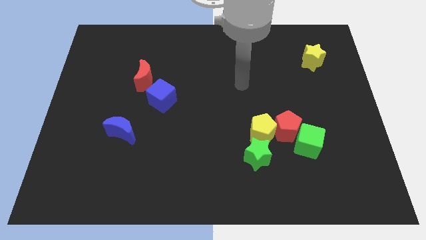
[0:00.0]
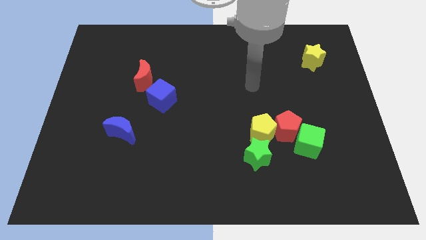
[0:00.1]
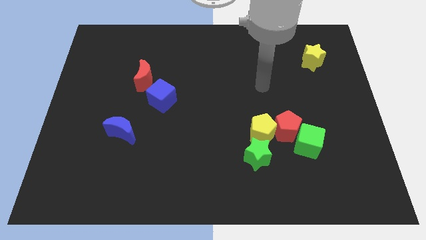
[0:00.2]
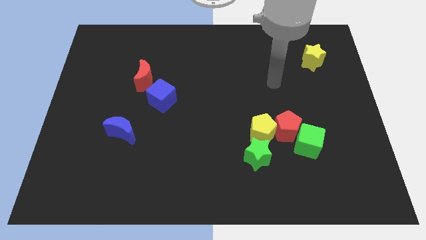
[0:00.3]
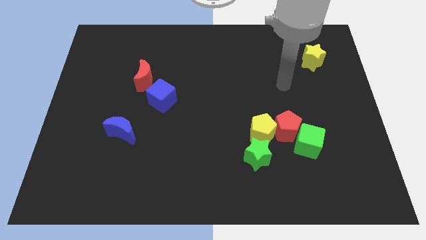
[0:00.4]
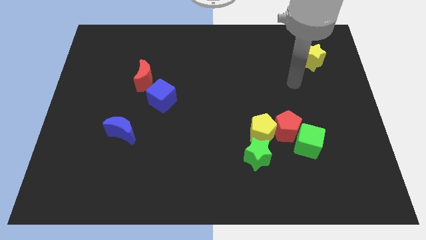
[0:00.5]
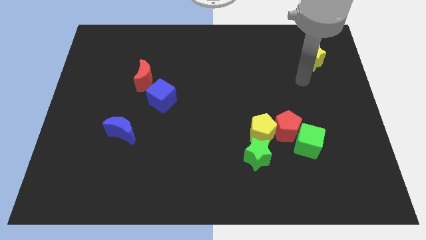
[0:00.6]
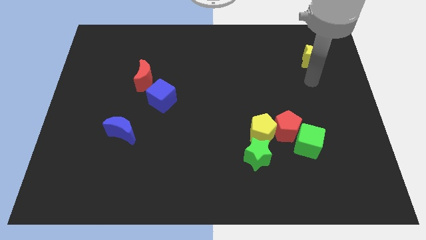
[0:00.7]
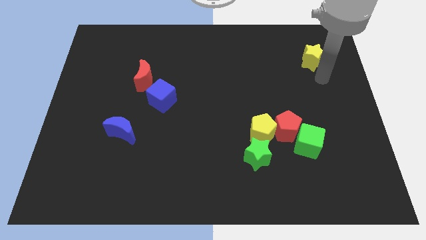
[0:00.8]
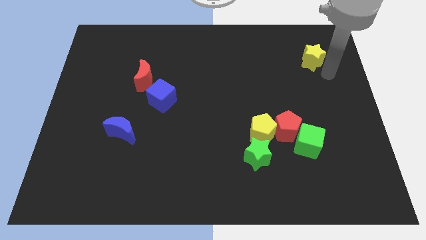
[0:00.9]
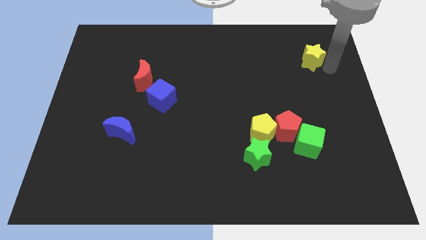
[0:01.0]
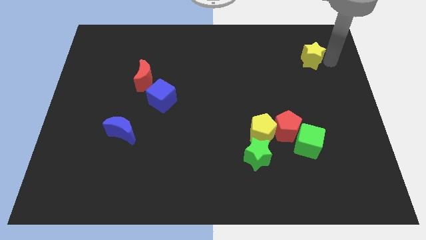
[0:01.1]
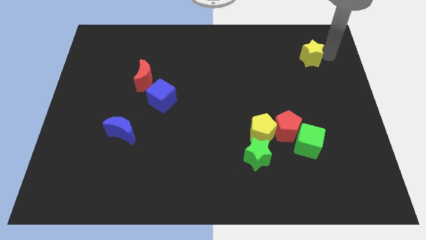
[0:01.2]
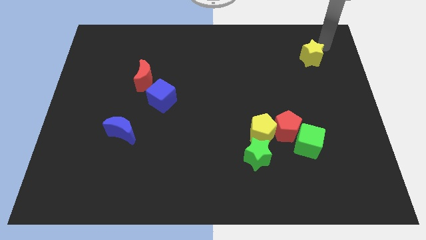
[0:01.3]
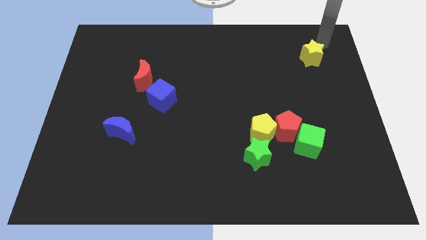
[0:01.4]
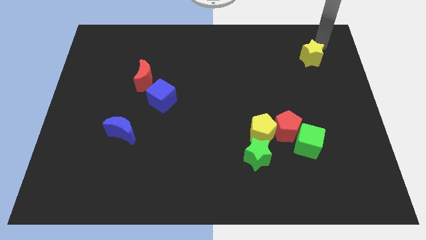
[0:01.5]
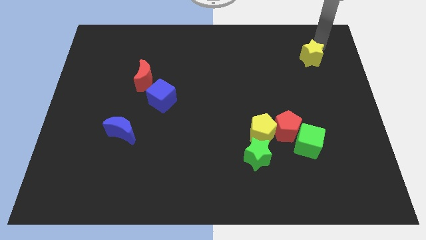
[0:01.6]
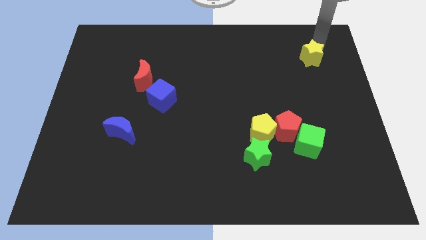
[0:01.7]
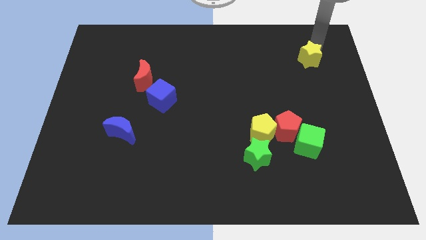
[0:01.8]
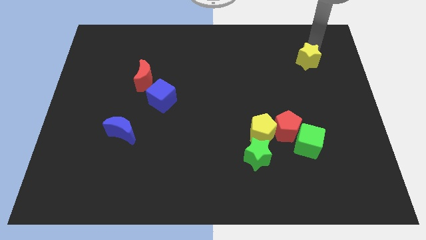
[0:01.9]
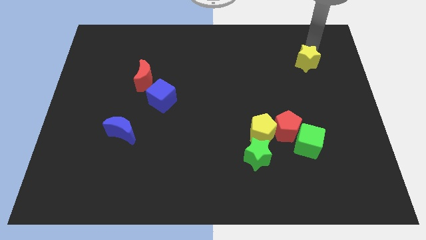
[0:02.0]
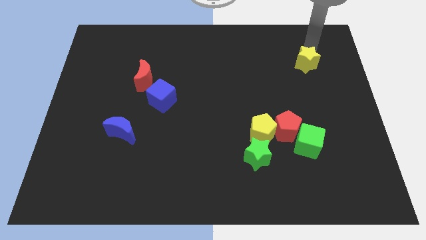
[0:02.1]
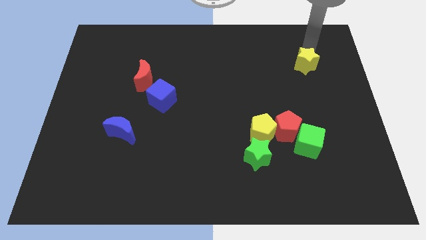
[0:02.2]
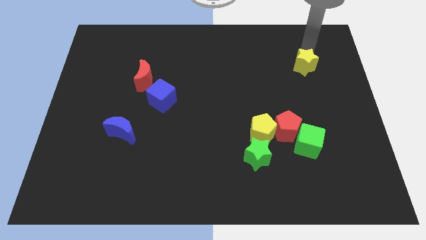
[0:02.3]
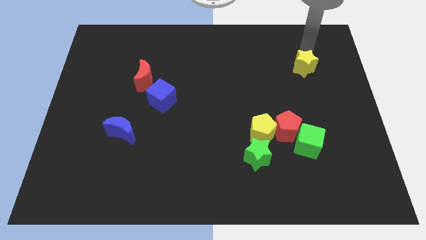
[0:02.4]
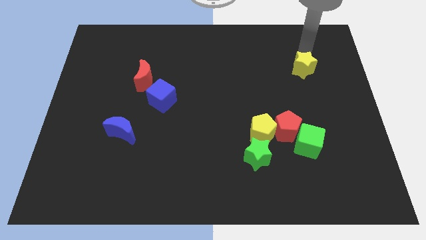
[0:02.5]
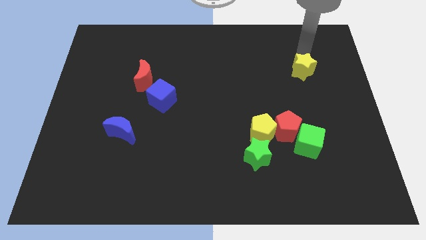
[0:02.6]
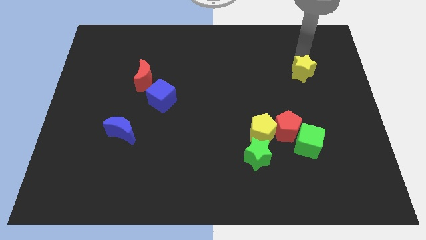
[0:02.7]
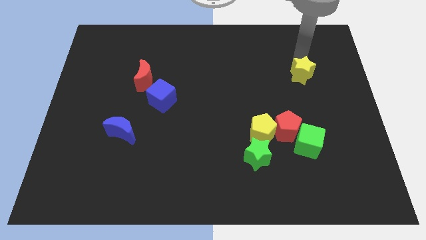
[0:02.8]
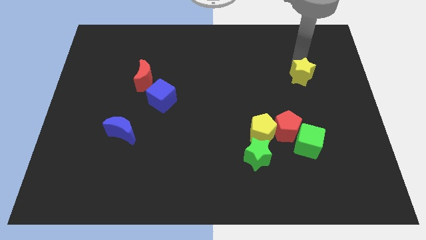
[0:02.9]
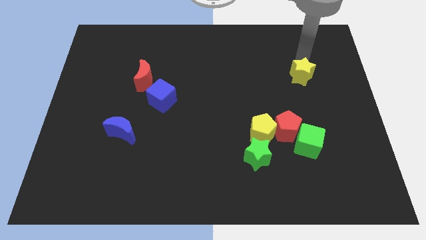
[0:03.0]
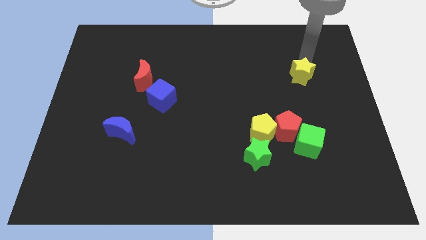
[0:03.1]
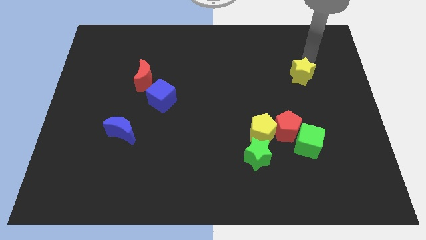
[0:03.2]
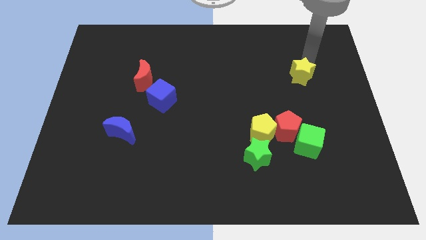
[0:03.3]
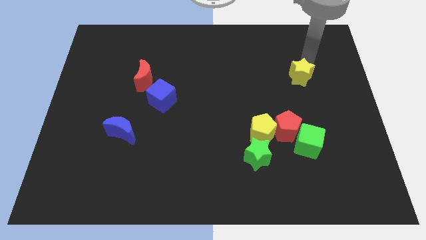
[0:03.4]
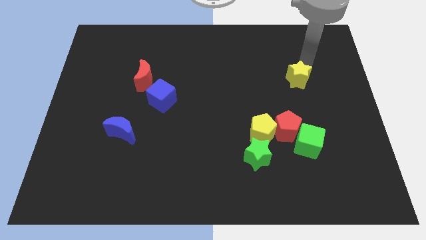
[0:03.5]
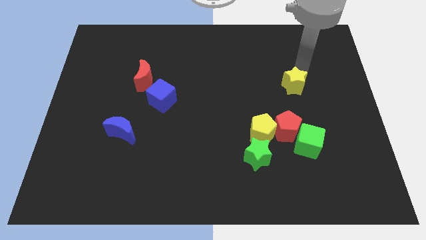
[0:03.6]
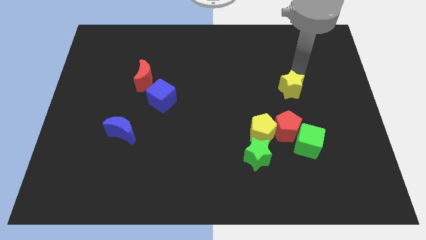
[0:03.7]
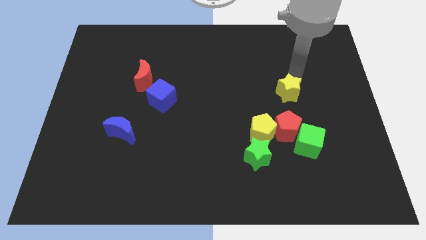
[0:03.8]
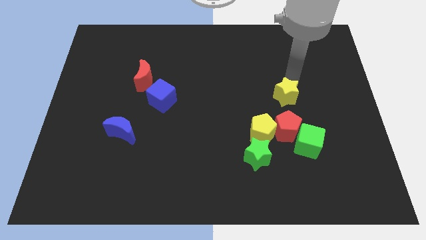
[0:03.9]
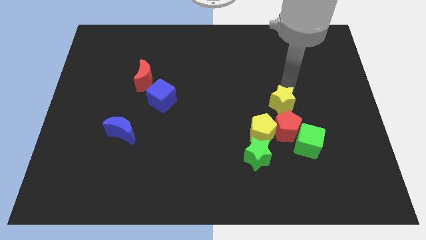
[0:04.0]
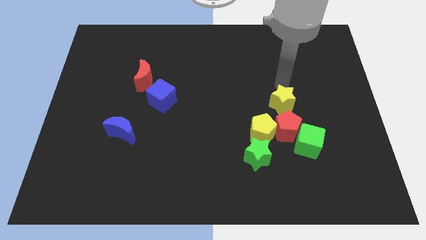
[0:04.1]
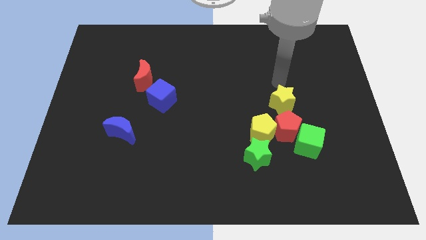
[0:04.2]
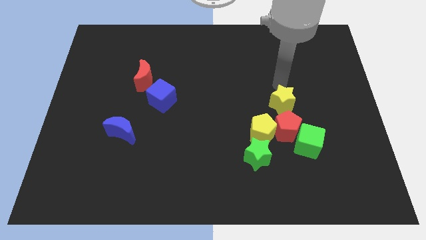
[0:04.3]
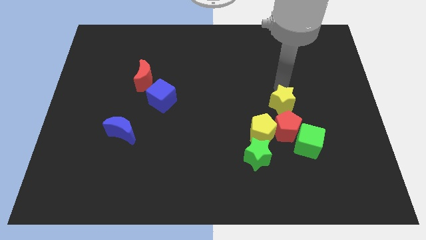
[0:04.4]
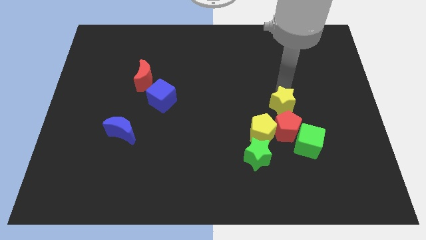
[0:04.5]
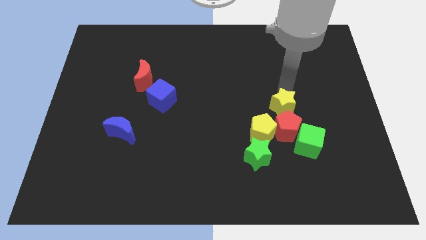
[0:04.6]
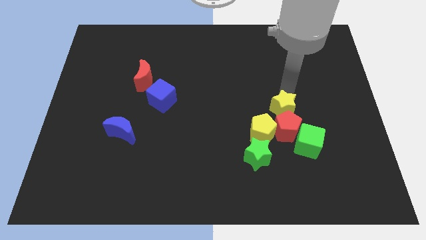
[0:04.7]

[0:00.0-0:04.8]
push the yellow star to the red pentagon

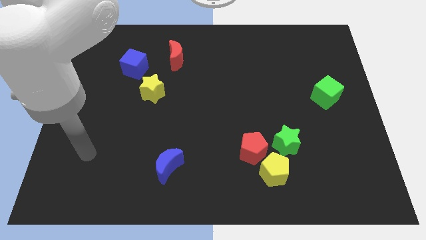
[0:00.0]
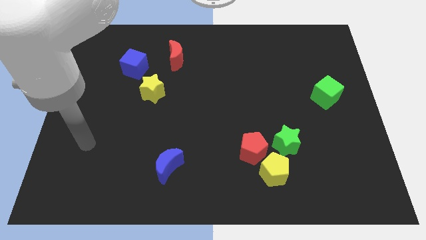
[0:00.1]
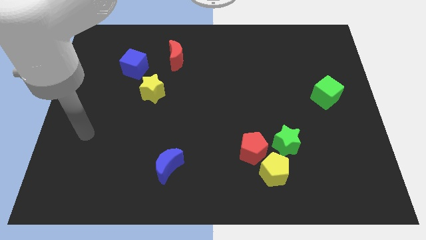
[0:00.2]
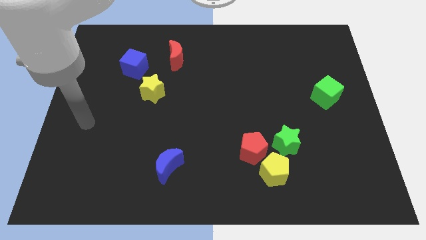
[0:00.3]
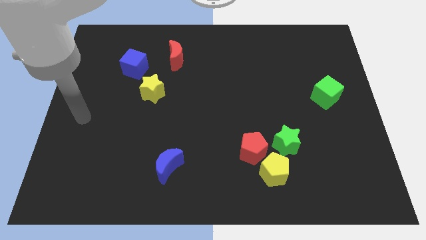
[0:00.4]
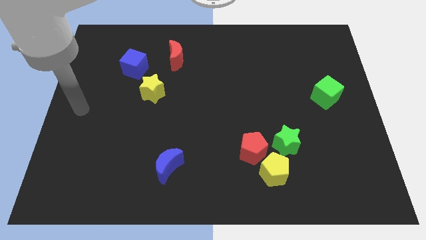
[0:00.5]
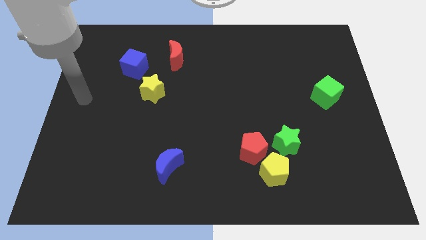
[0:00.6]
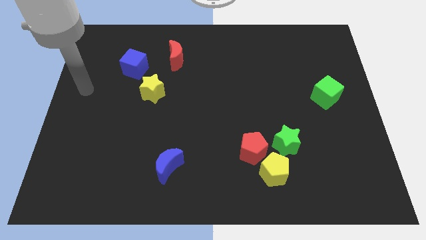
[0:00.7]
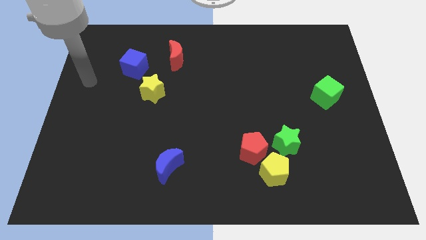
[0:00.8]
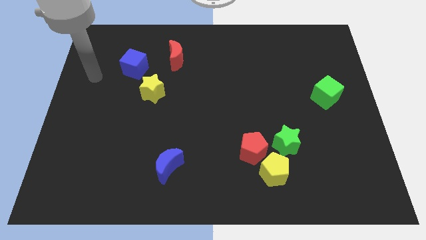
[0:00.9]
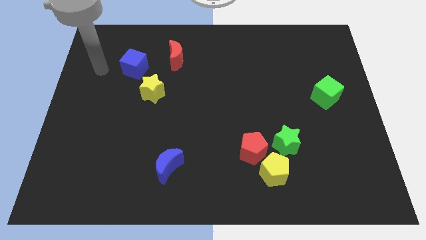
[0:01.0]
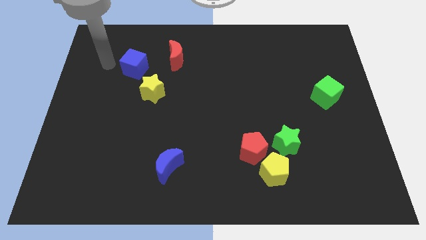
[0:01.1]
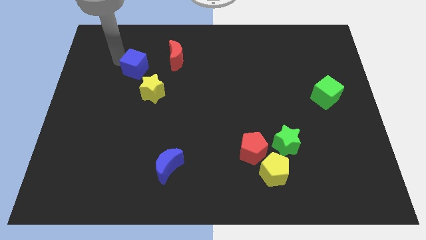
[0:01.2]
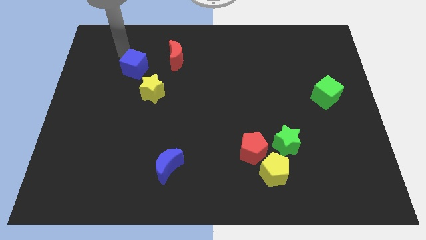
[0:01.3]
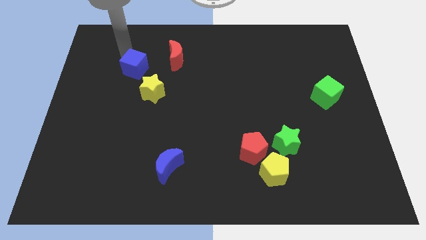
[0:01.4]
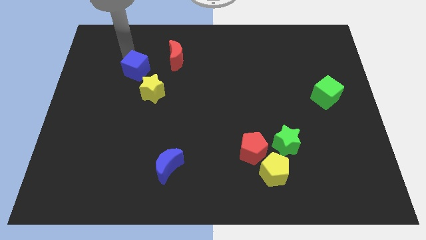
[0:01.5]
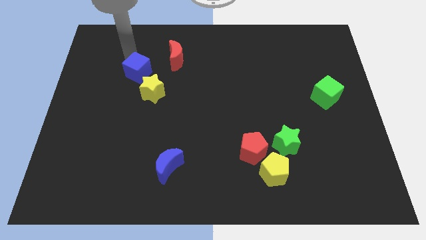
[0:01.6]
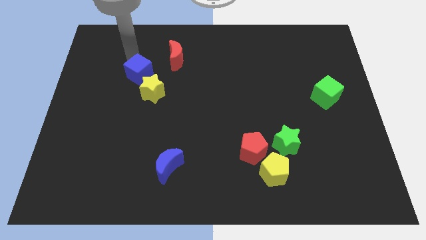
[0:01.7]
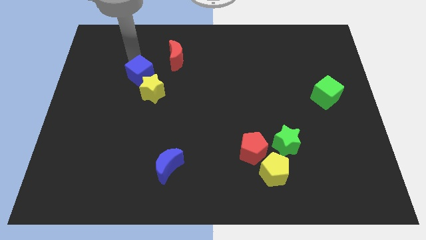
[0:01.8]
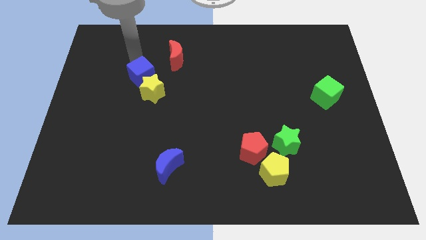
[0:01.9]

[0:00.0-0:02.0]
move the blue cube close to the yellow star
